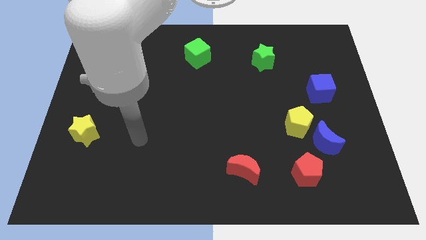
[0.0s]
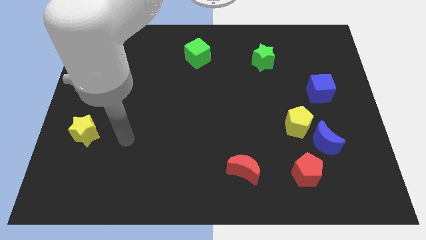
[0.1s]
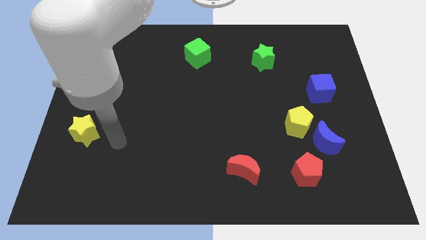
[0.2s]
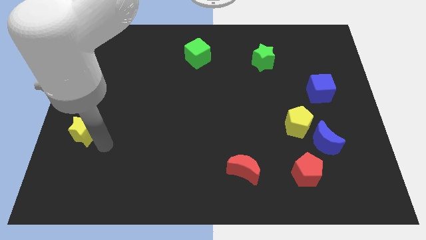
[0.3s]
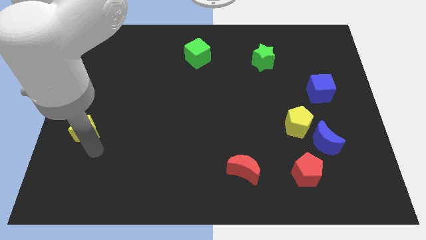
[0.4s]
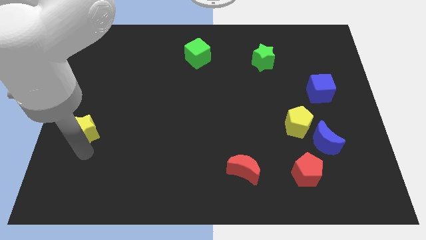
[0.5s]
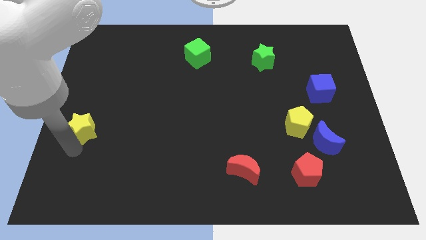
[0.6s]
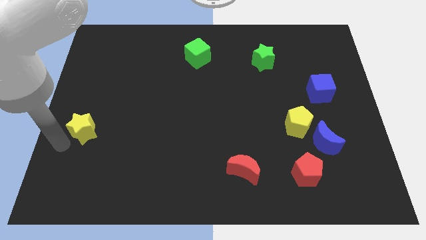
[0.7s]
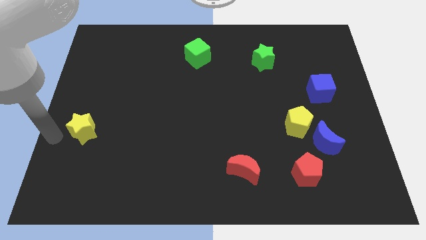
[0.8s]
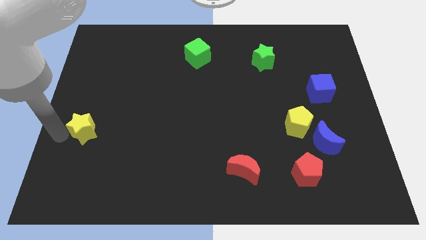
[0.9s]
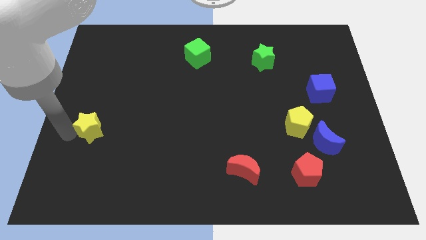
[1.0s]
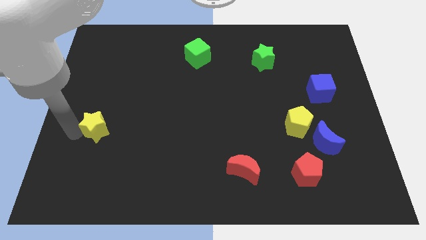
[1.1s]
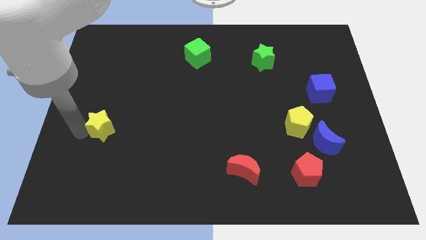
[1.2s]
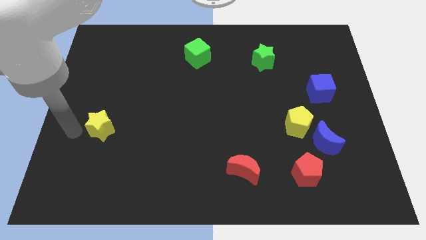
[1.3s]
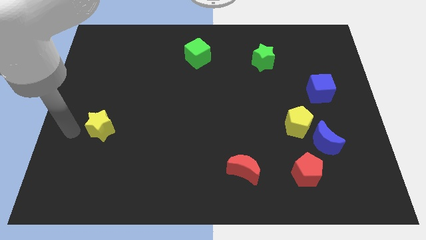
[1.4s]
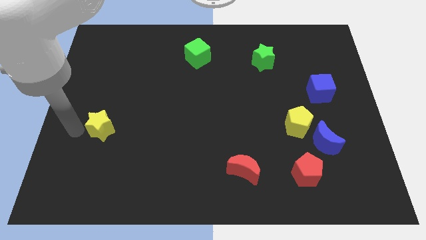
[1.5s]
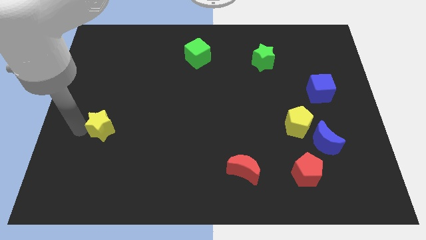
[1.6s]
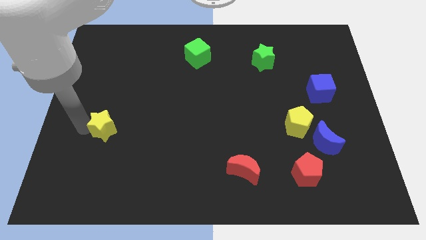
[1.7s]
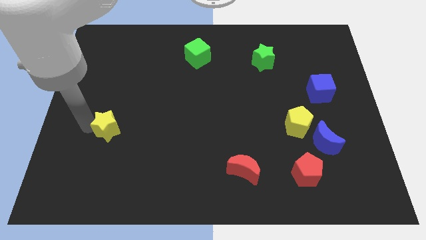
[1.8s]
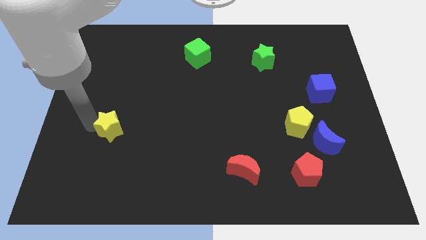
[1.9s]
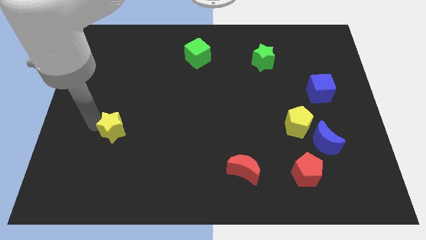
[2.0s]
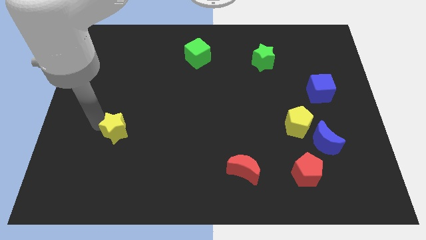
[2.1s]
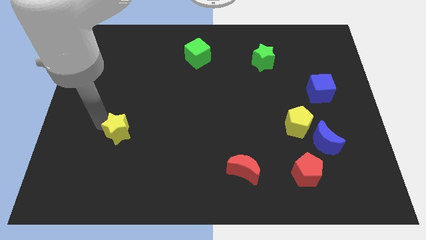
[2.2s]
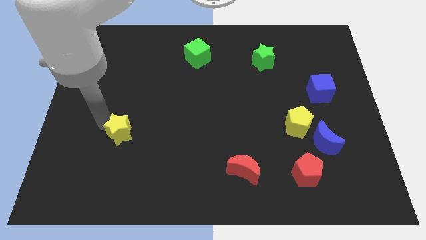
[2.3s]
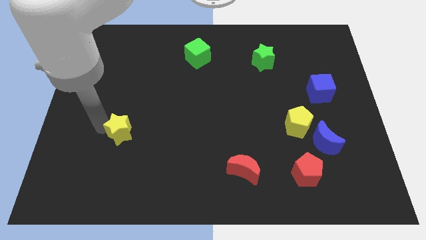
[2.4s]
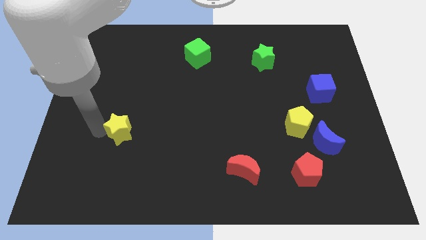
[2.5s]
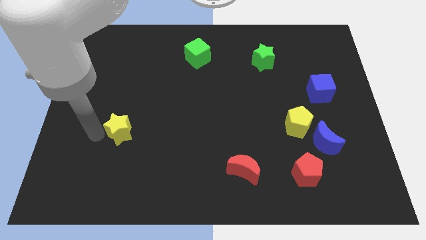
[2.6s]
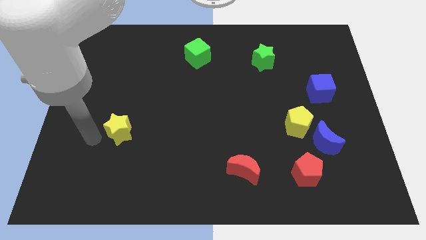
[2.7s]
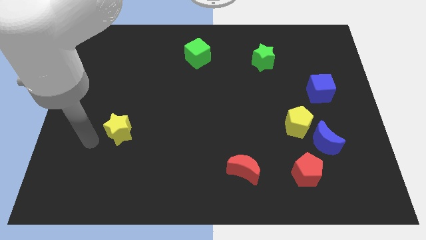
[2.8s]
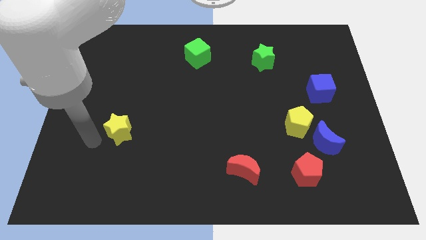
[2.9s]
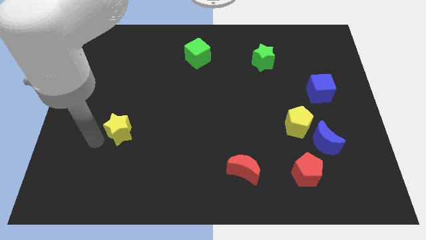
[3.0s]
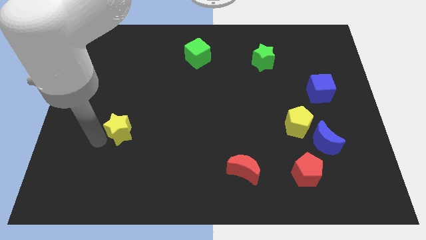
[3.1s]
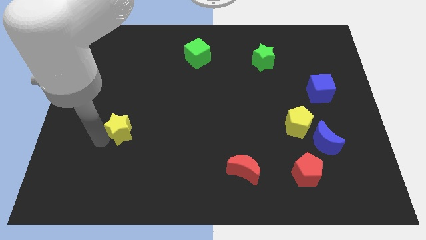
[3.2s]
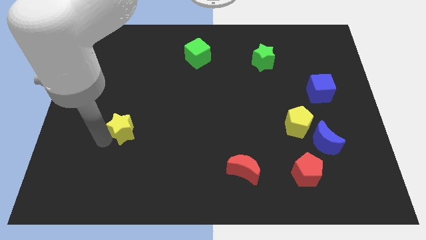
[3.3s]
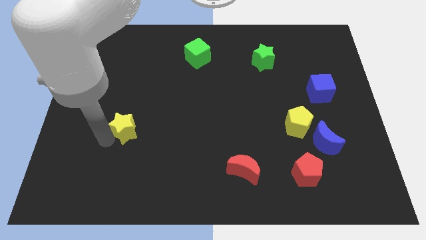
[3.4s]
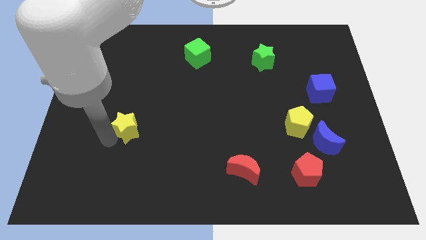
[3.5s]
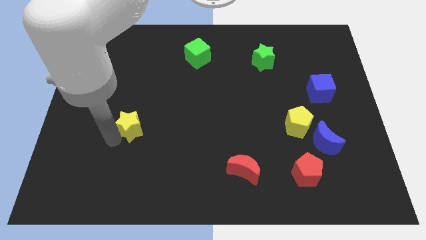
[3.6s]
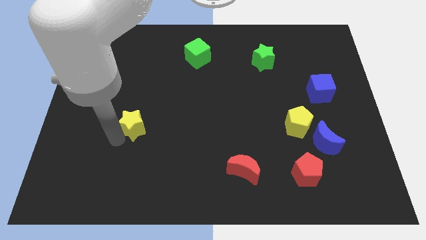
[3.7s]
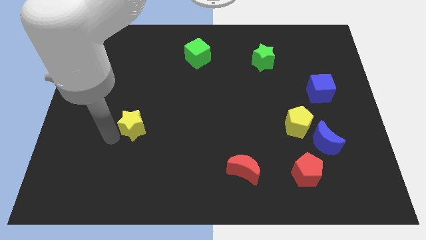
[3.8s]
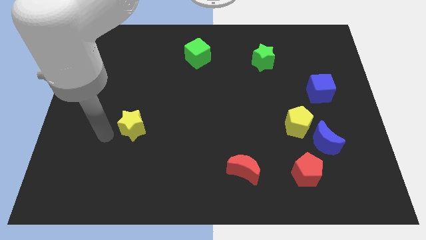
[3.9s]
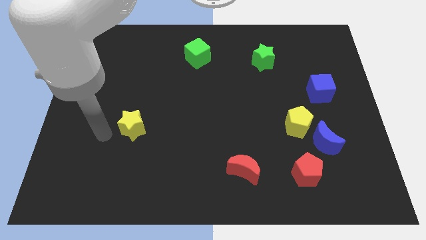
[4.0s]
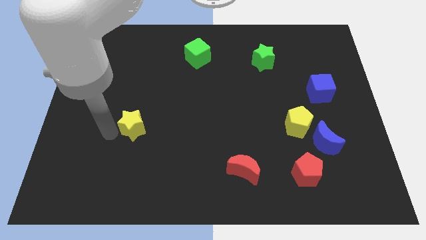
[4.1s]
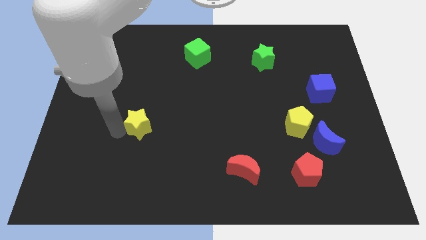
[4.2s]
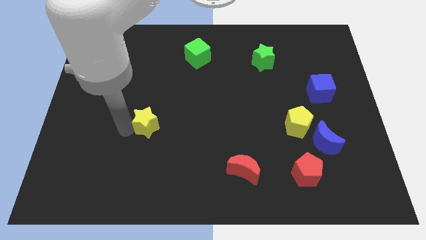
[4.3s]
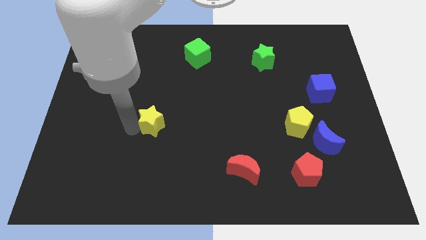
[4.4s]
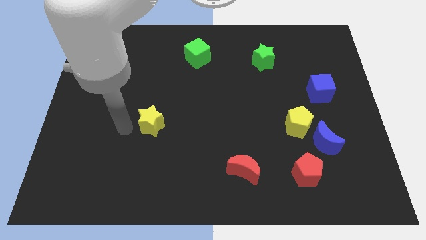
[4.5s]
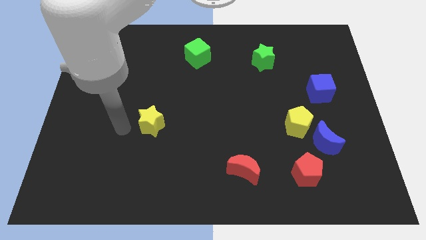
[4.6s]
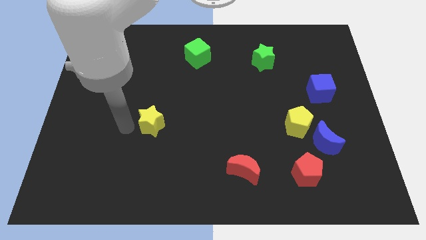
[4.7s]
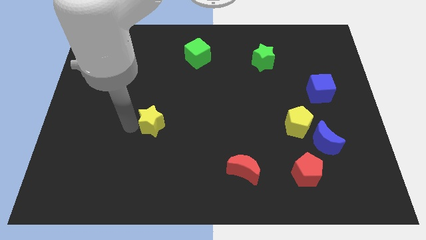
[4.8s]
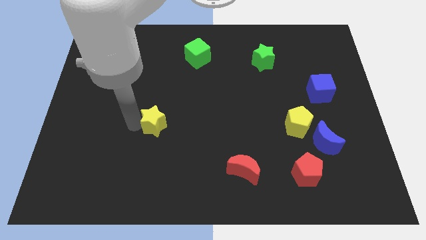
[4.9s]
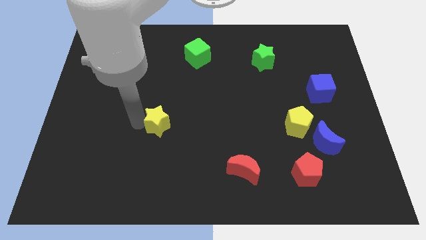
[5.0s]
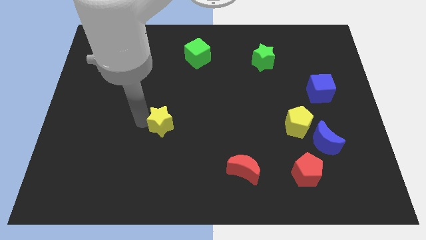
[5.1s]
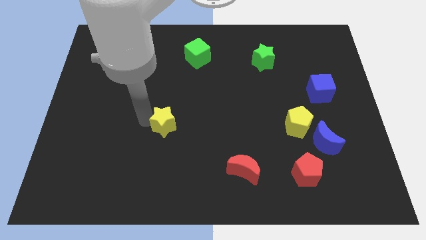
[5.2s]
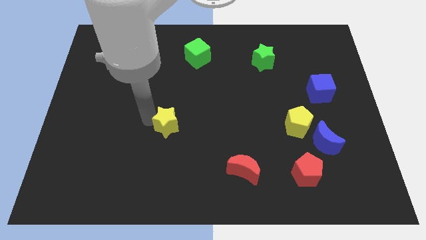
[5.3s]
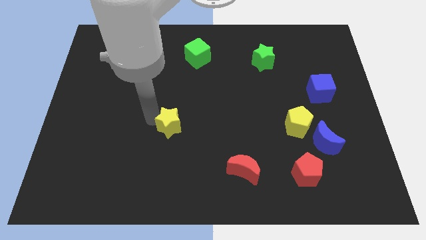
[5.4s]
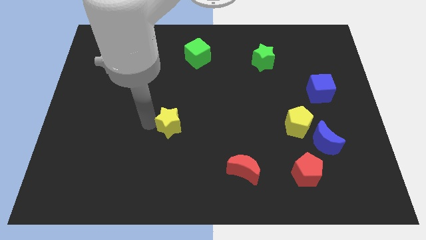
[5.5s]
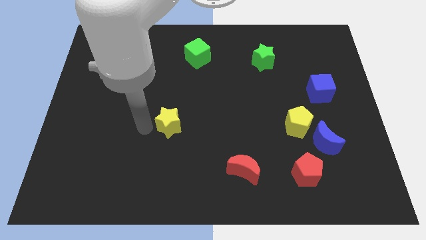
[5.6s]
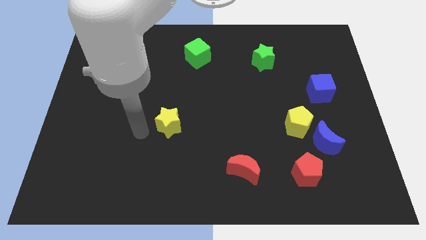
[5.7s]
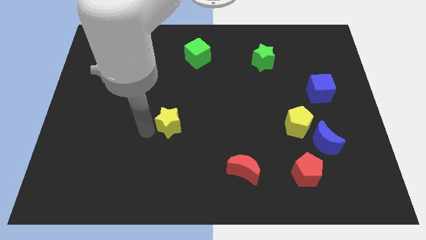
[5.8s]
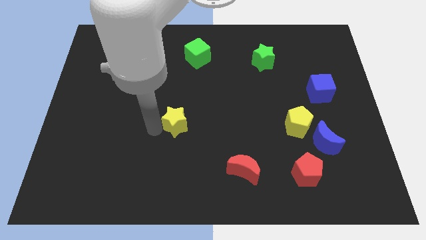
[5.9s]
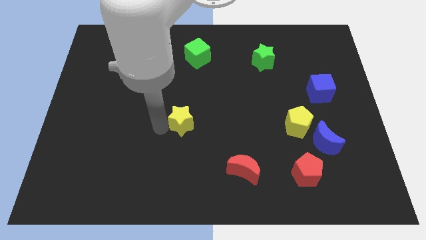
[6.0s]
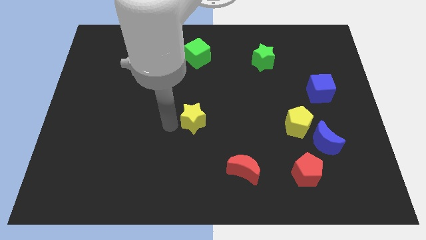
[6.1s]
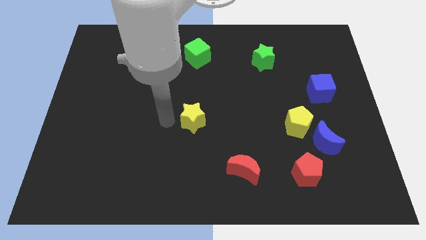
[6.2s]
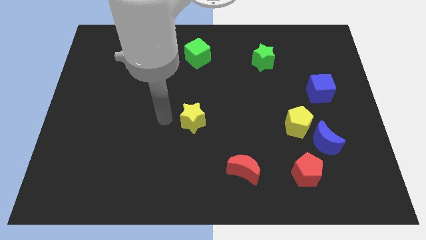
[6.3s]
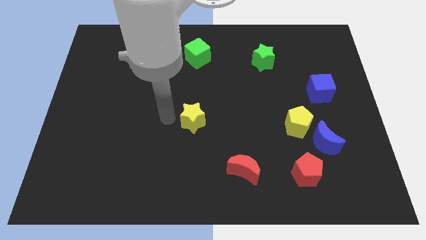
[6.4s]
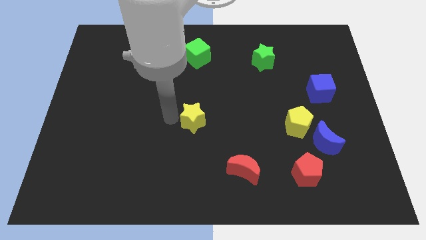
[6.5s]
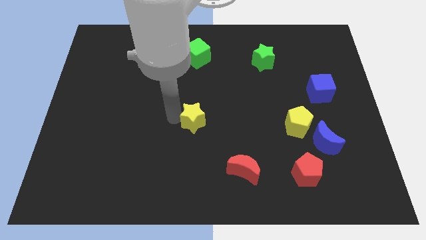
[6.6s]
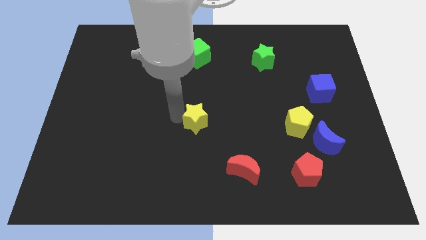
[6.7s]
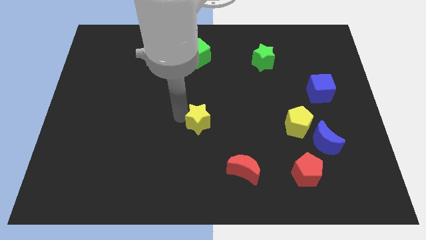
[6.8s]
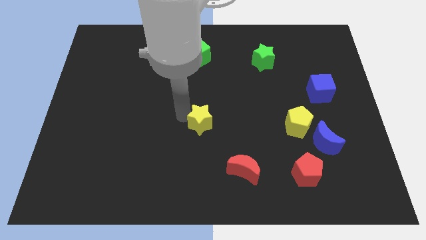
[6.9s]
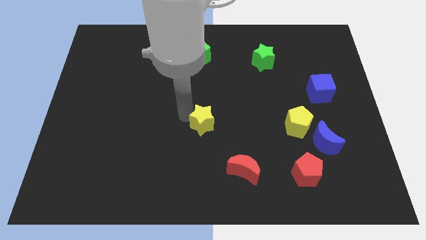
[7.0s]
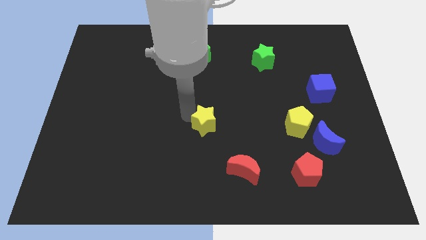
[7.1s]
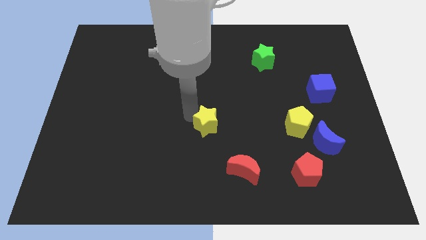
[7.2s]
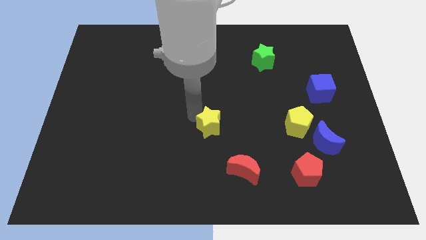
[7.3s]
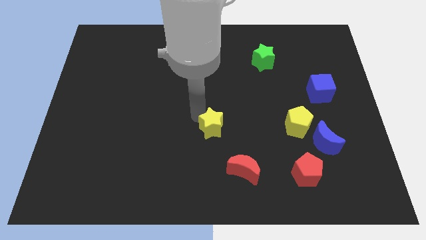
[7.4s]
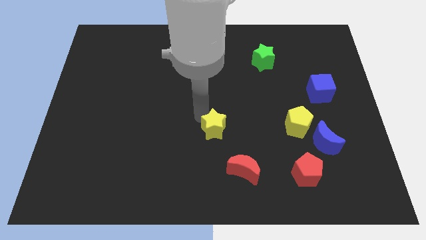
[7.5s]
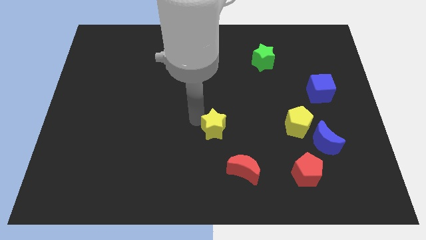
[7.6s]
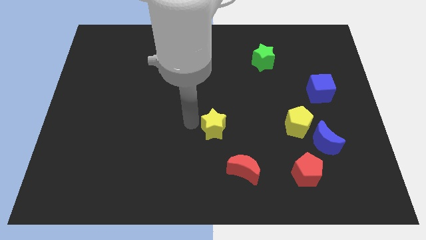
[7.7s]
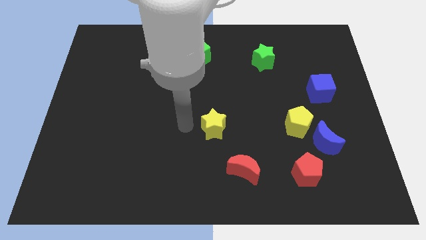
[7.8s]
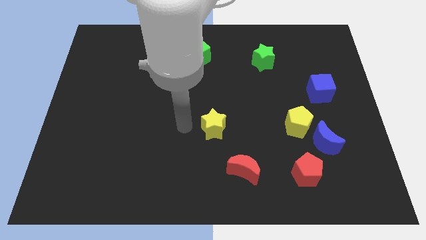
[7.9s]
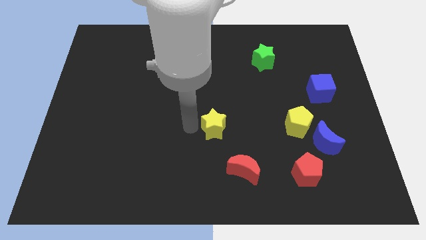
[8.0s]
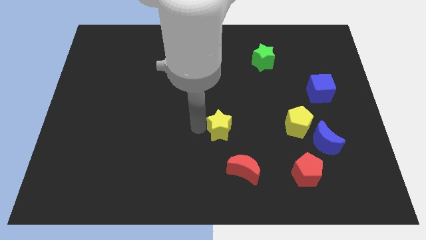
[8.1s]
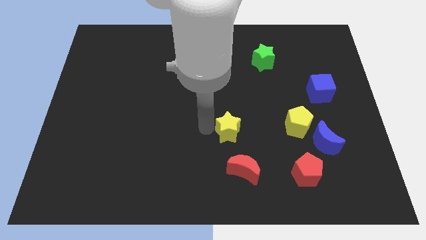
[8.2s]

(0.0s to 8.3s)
slide the yellow star to the top of the red moon
